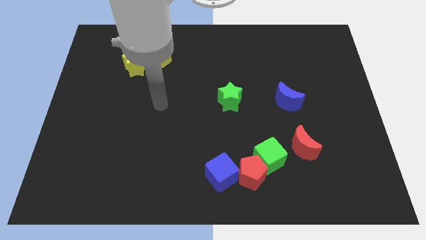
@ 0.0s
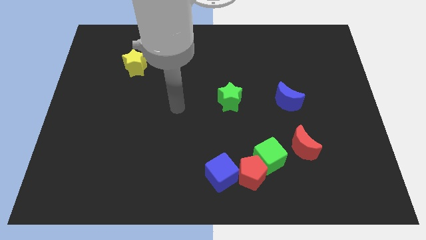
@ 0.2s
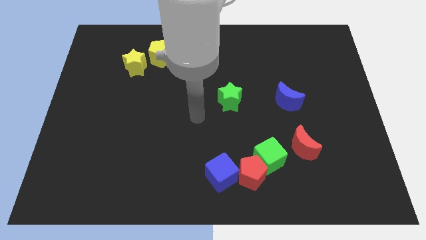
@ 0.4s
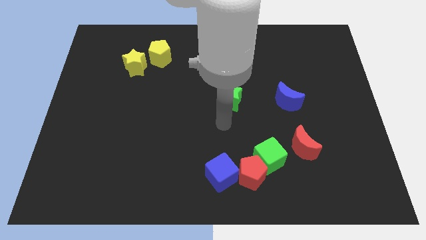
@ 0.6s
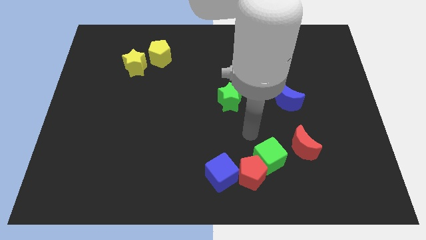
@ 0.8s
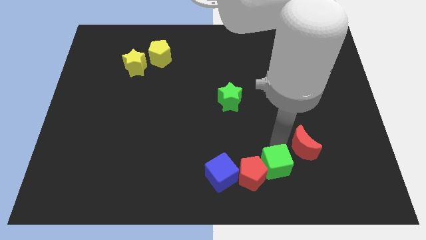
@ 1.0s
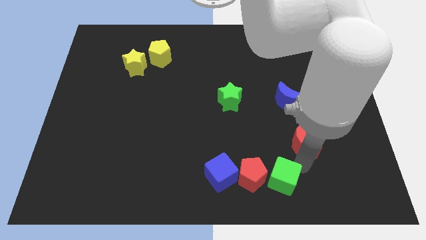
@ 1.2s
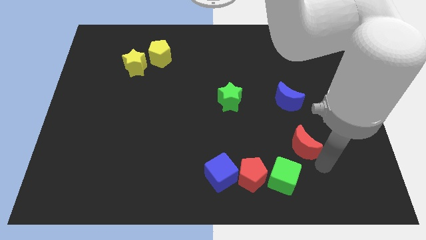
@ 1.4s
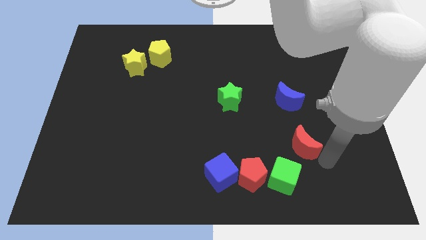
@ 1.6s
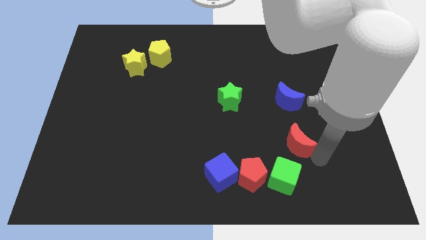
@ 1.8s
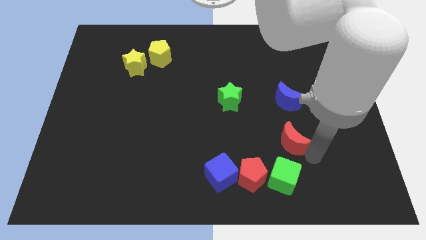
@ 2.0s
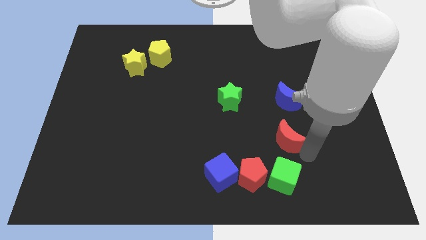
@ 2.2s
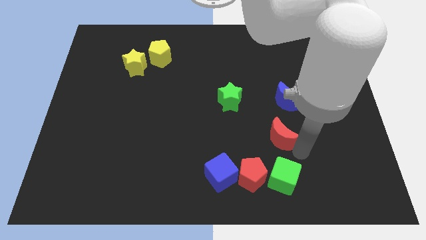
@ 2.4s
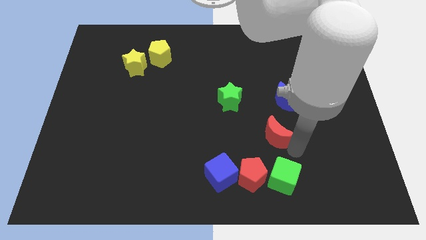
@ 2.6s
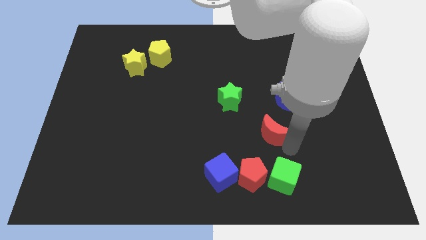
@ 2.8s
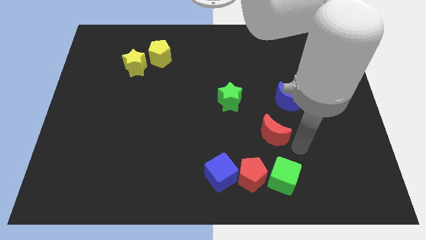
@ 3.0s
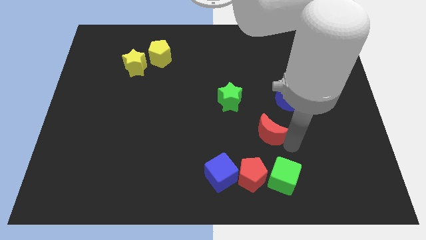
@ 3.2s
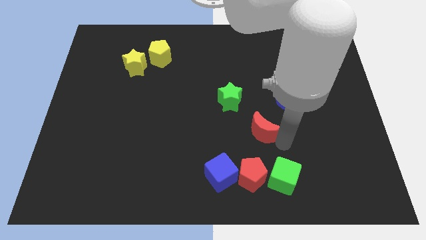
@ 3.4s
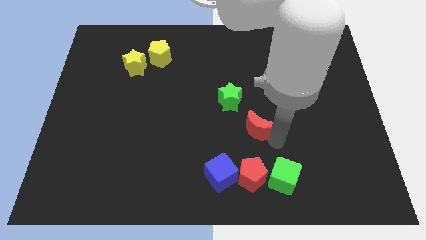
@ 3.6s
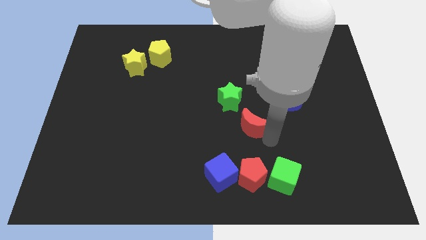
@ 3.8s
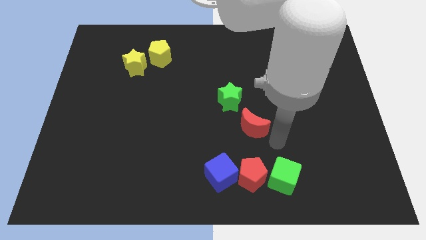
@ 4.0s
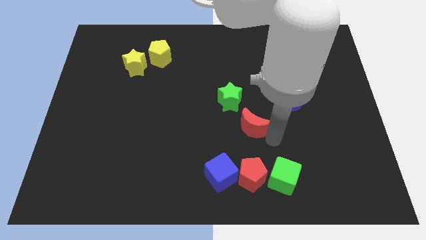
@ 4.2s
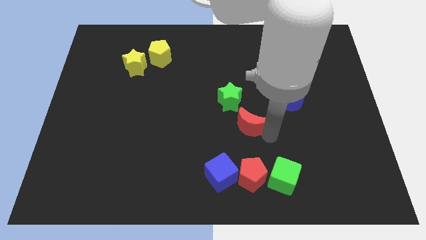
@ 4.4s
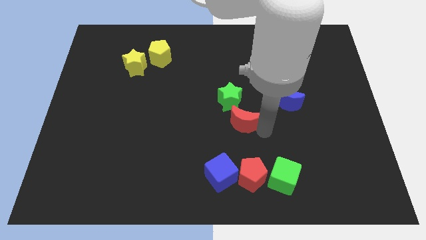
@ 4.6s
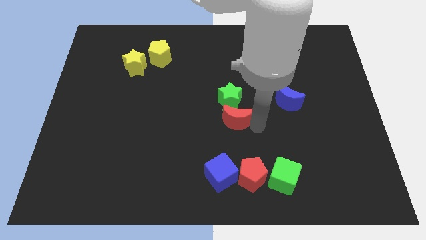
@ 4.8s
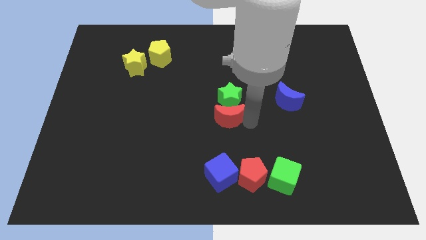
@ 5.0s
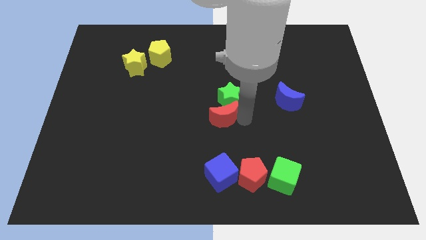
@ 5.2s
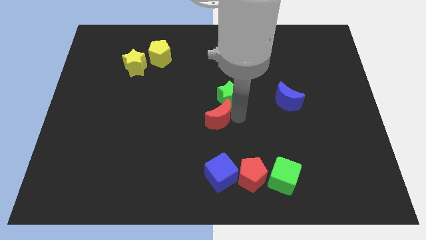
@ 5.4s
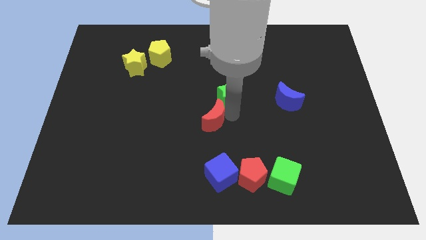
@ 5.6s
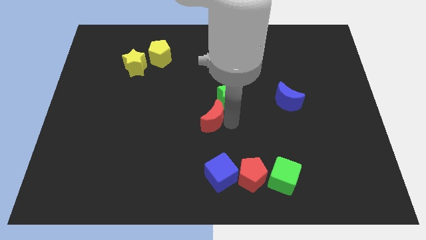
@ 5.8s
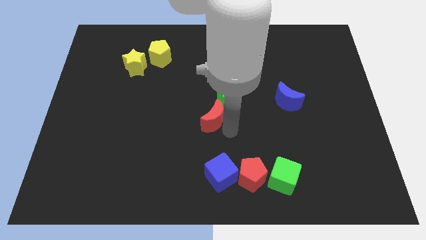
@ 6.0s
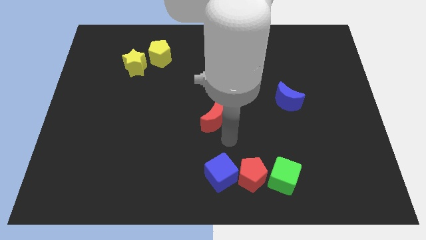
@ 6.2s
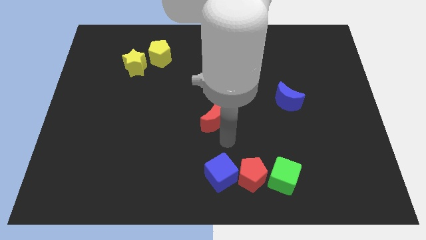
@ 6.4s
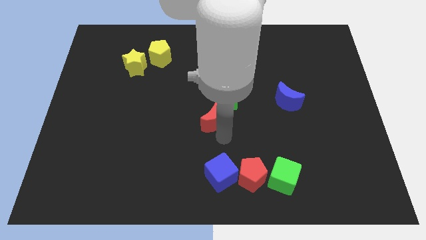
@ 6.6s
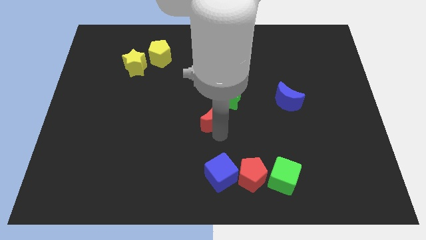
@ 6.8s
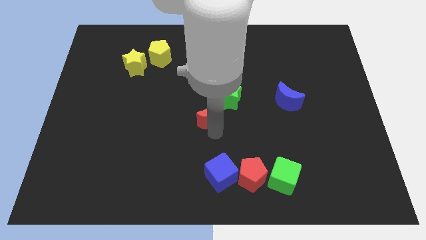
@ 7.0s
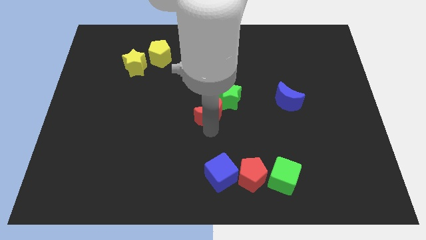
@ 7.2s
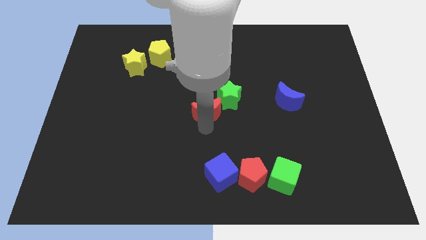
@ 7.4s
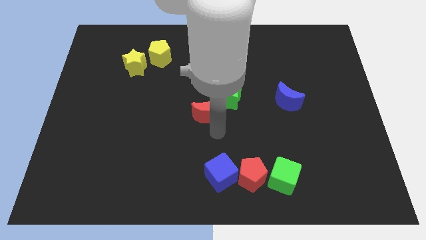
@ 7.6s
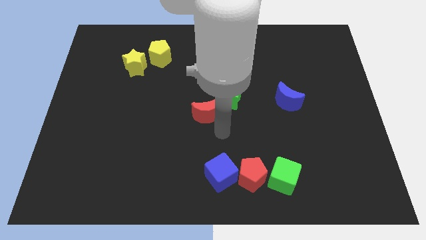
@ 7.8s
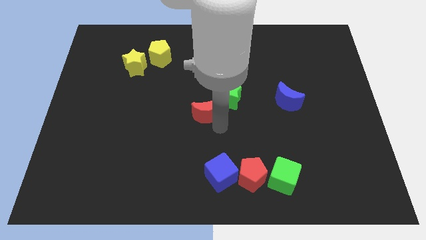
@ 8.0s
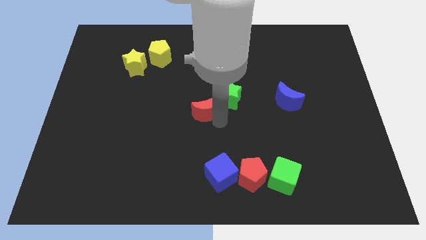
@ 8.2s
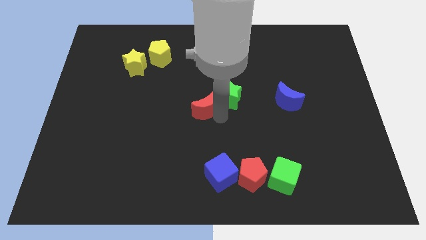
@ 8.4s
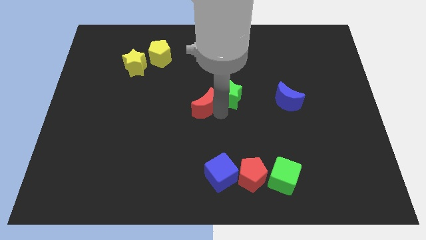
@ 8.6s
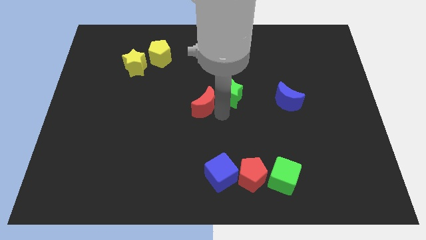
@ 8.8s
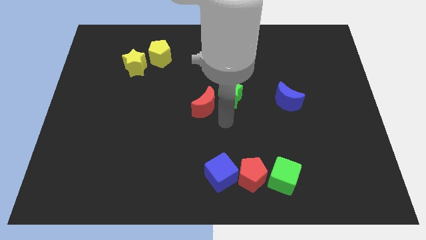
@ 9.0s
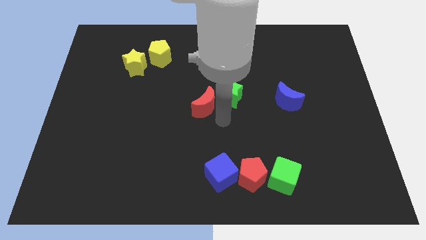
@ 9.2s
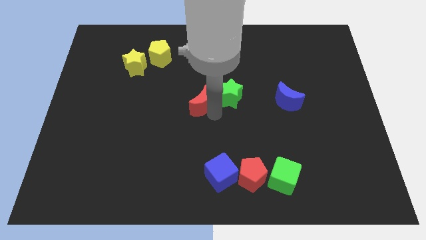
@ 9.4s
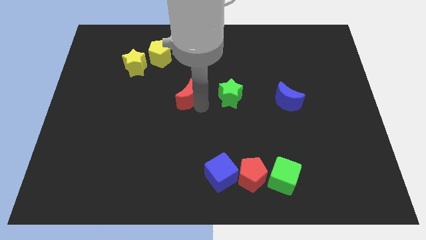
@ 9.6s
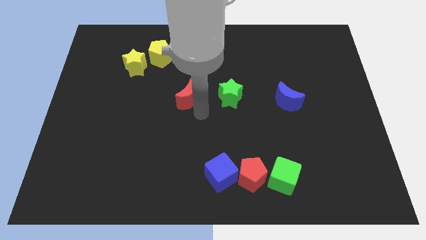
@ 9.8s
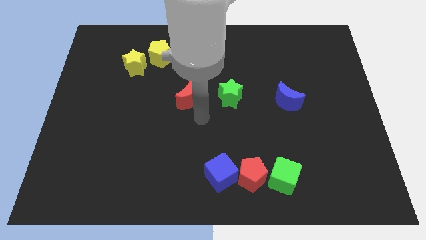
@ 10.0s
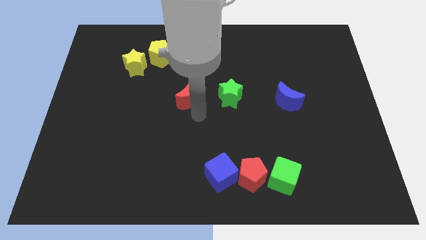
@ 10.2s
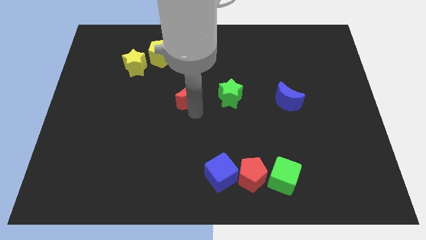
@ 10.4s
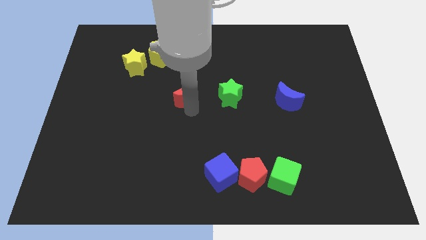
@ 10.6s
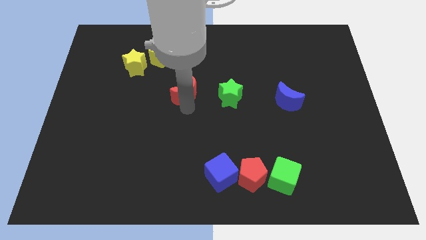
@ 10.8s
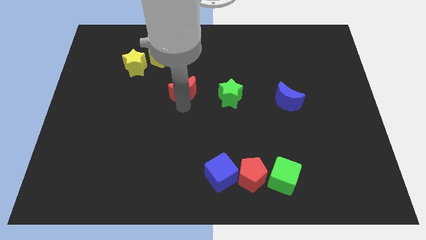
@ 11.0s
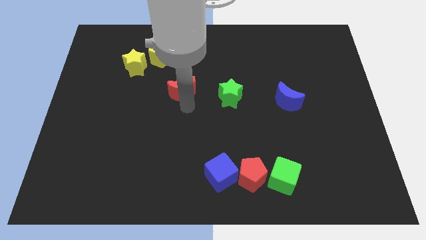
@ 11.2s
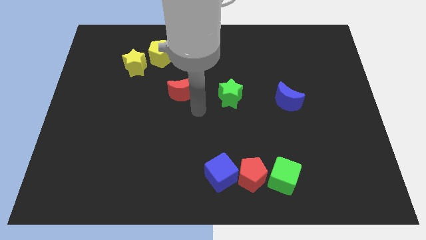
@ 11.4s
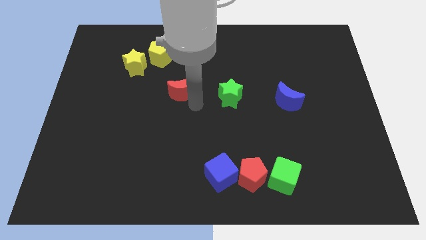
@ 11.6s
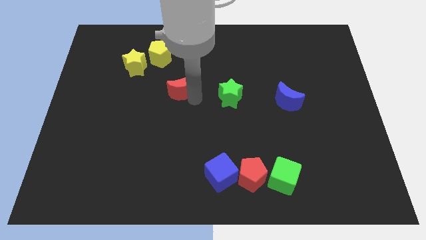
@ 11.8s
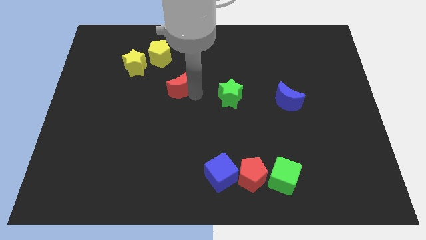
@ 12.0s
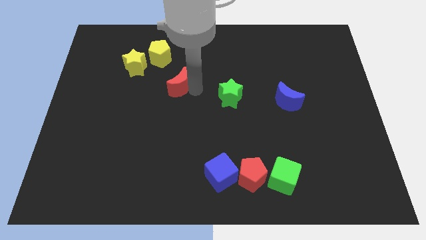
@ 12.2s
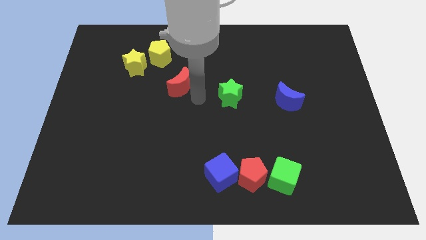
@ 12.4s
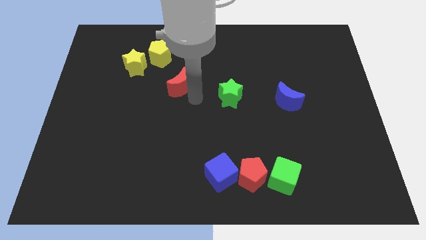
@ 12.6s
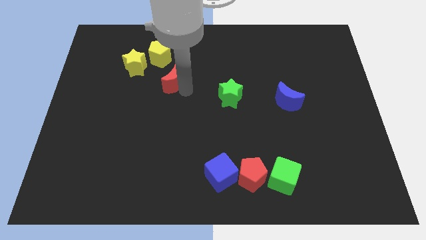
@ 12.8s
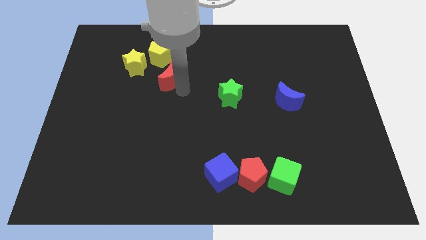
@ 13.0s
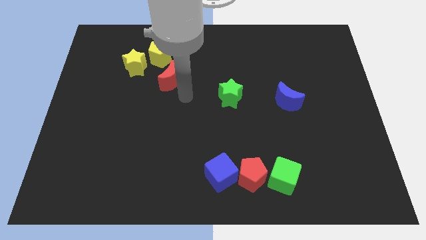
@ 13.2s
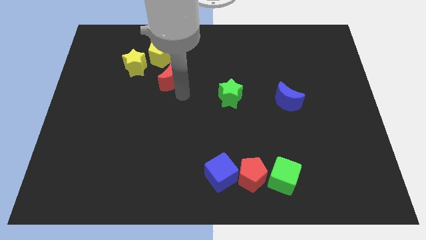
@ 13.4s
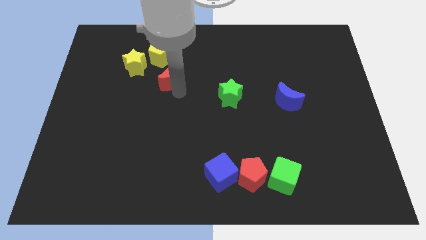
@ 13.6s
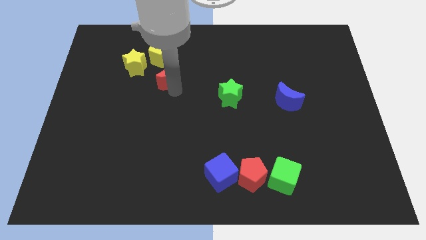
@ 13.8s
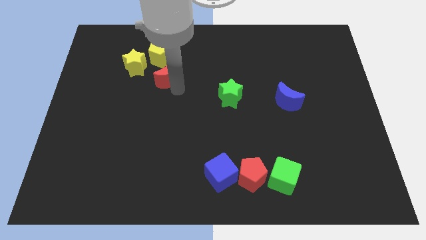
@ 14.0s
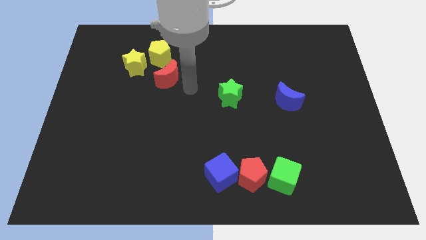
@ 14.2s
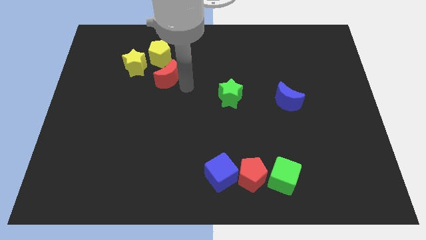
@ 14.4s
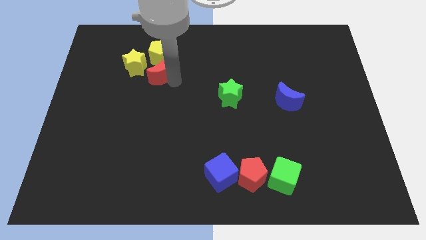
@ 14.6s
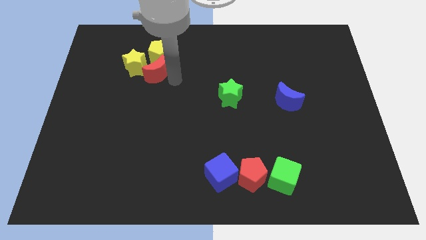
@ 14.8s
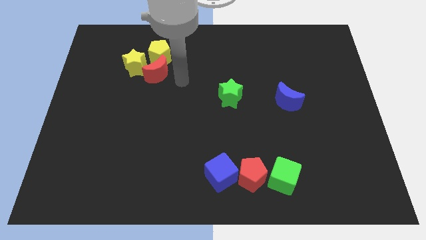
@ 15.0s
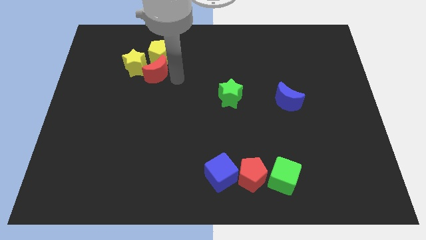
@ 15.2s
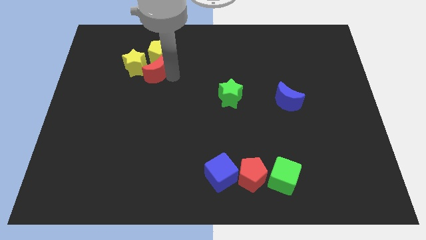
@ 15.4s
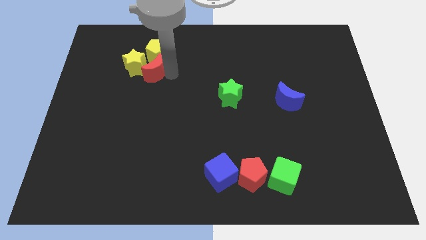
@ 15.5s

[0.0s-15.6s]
move the red moon next to the yellow star
